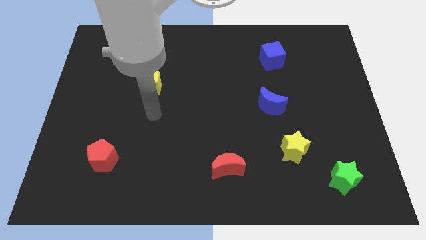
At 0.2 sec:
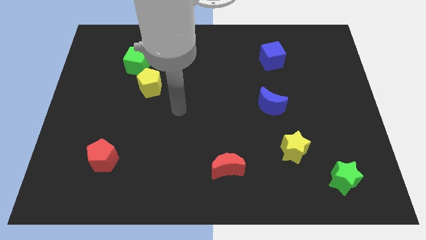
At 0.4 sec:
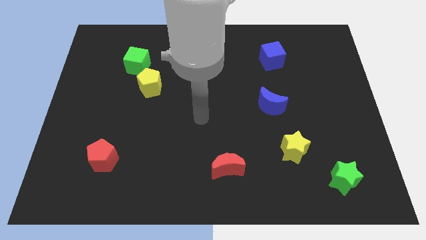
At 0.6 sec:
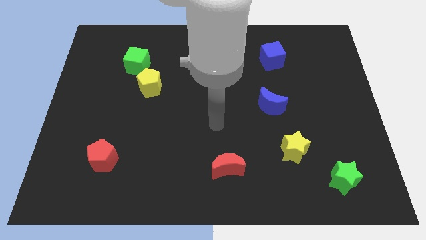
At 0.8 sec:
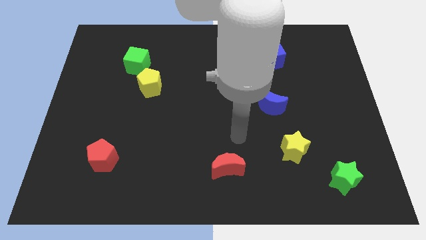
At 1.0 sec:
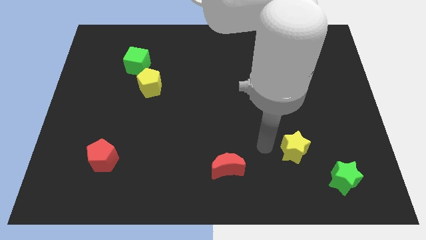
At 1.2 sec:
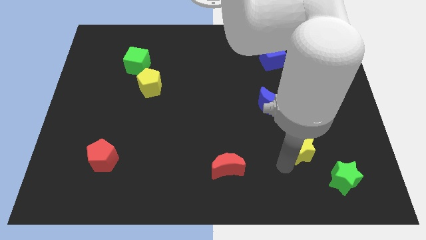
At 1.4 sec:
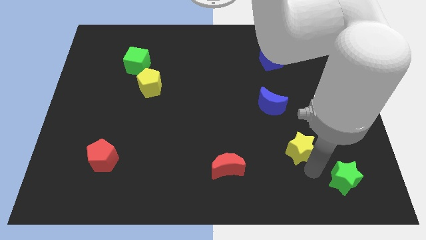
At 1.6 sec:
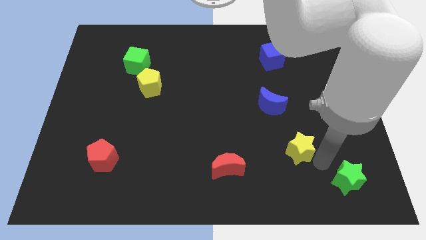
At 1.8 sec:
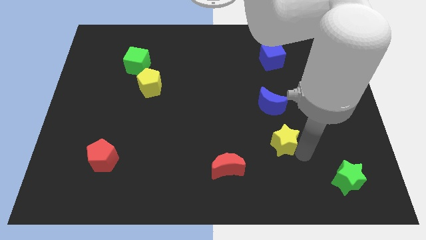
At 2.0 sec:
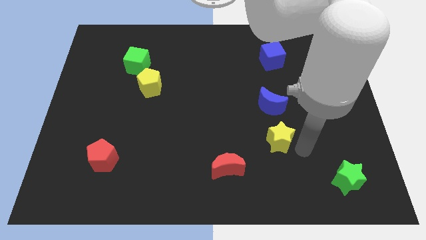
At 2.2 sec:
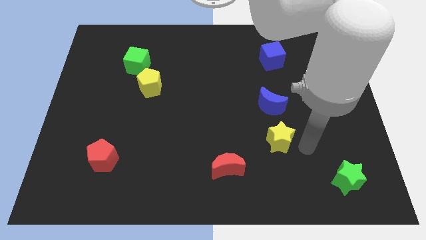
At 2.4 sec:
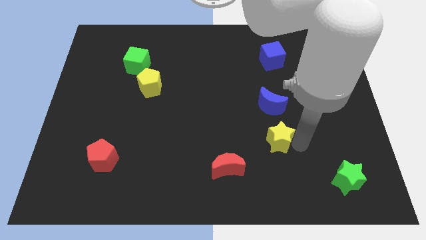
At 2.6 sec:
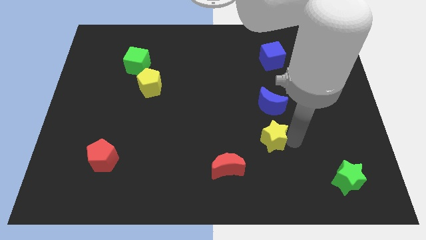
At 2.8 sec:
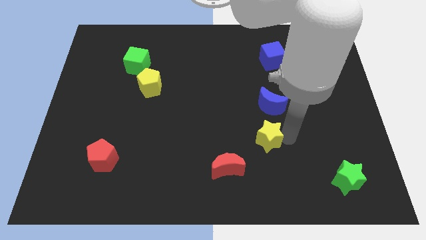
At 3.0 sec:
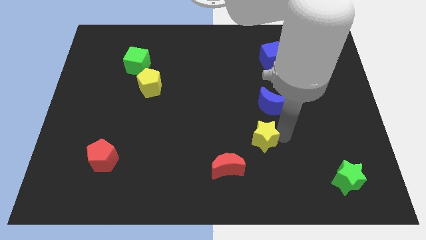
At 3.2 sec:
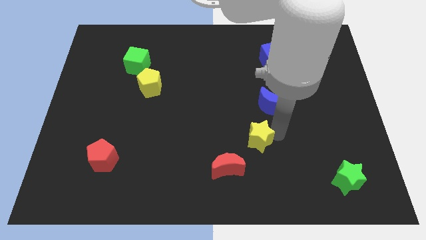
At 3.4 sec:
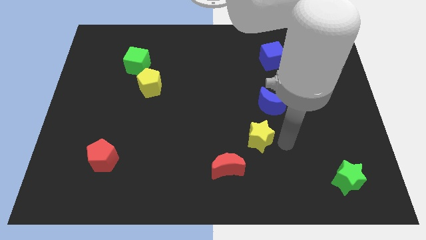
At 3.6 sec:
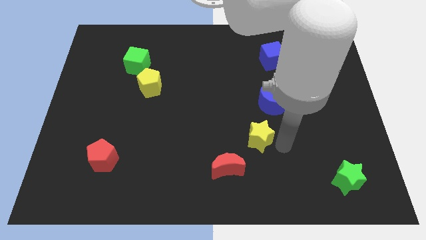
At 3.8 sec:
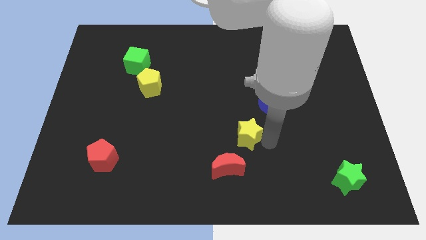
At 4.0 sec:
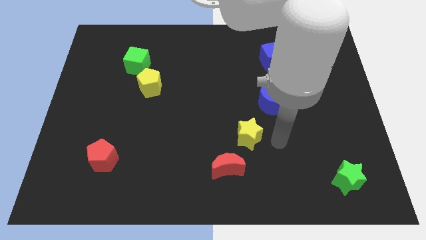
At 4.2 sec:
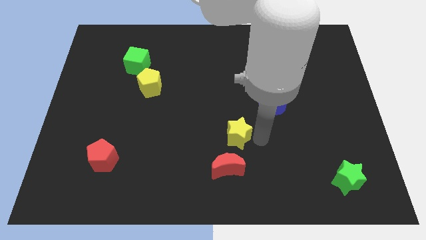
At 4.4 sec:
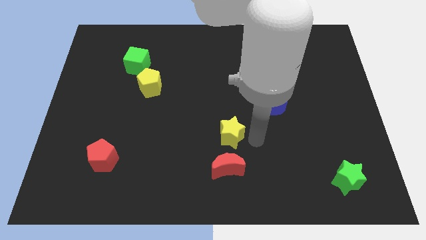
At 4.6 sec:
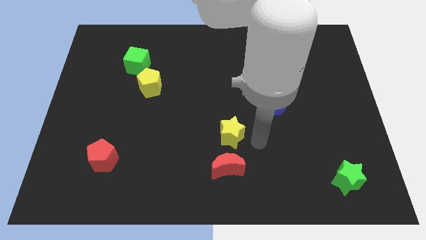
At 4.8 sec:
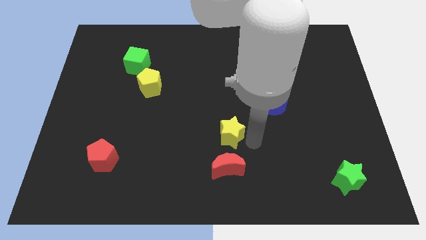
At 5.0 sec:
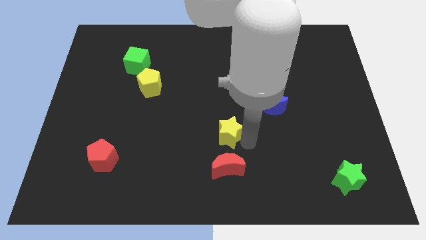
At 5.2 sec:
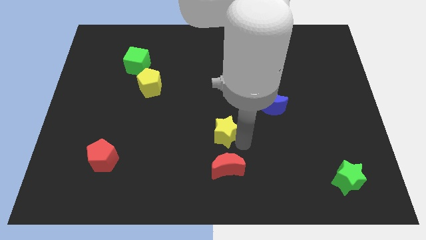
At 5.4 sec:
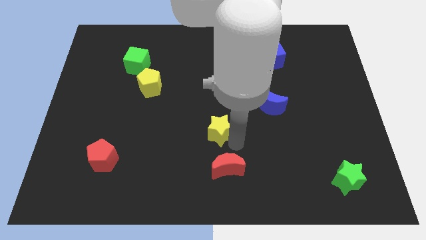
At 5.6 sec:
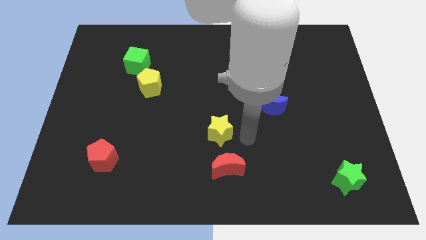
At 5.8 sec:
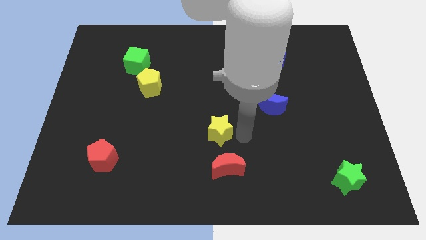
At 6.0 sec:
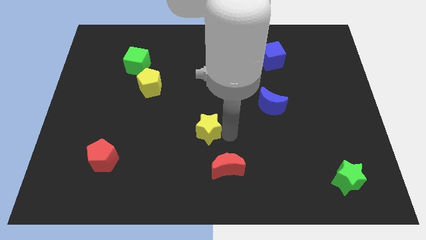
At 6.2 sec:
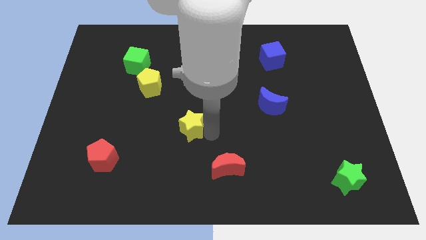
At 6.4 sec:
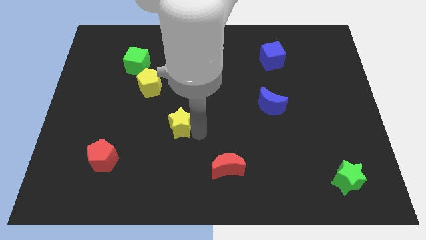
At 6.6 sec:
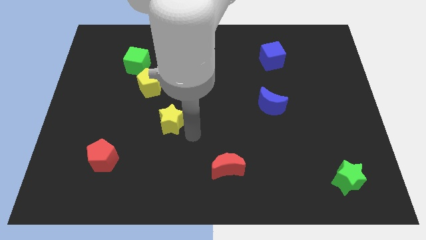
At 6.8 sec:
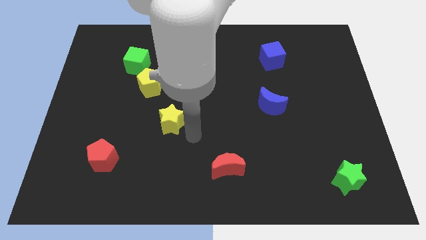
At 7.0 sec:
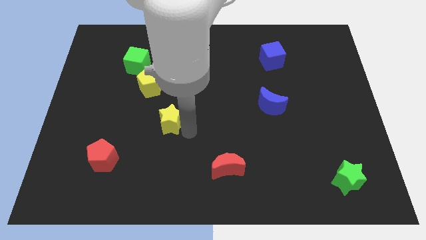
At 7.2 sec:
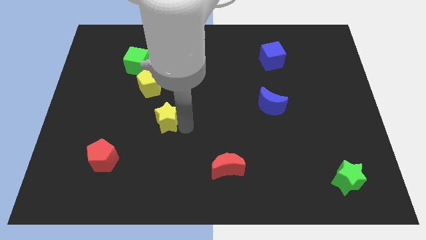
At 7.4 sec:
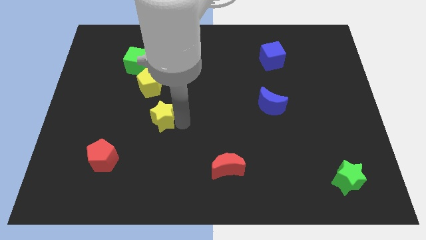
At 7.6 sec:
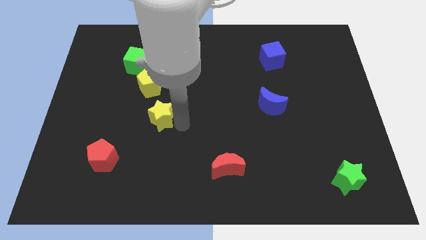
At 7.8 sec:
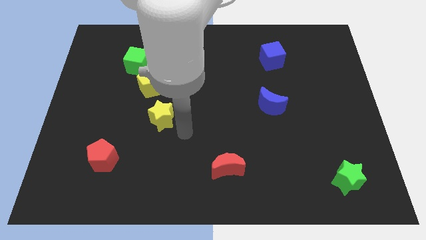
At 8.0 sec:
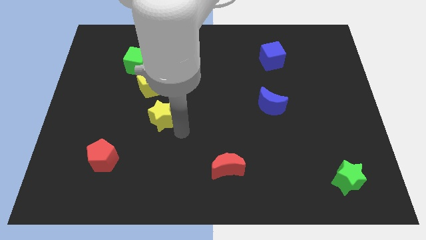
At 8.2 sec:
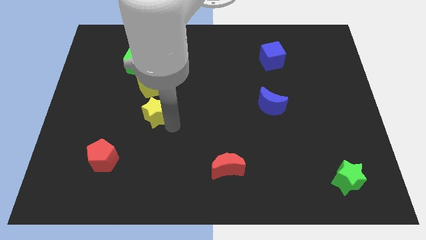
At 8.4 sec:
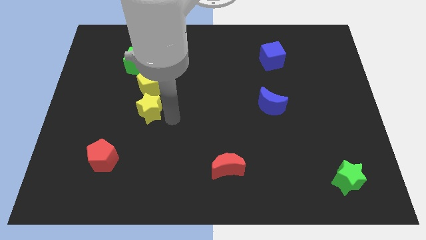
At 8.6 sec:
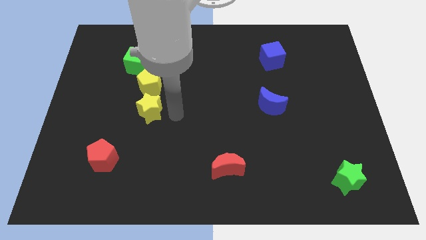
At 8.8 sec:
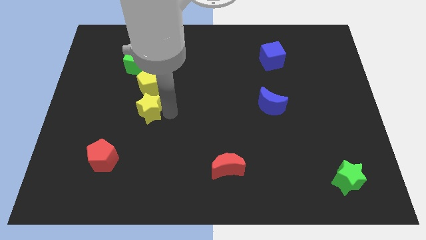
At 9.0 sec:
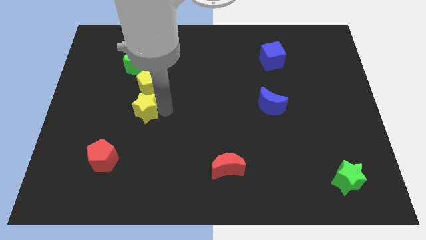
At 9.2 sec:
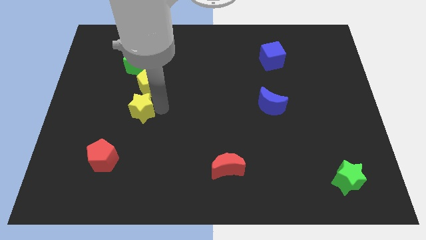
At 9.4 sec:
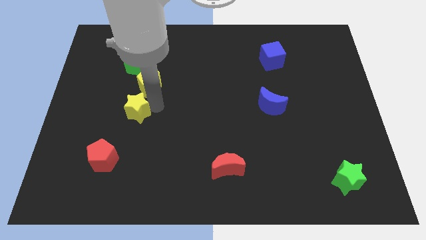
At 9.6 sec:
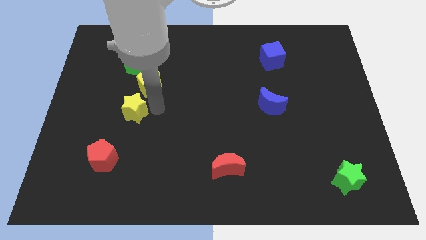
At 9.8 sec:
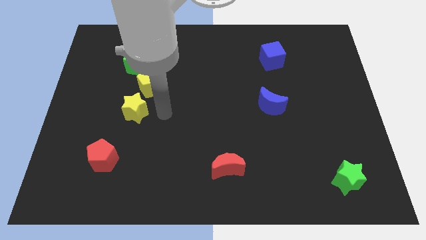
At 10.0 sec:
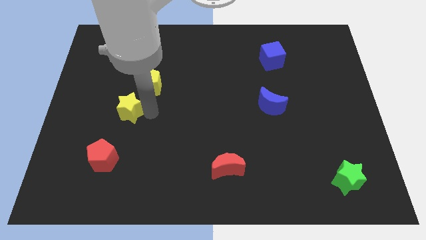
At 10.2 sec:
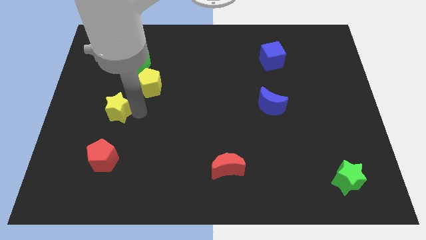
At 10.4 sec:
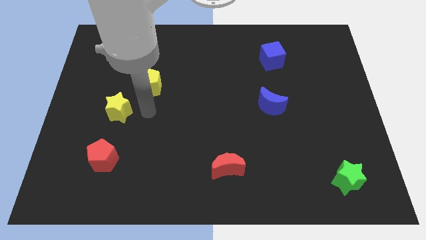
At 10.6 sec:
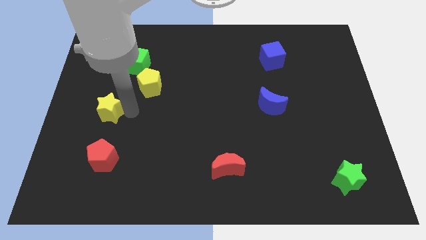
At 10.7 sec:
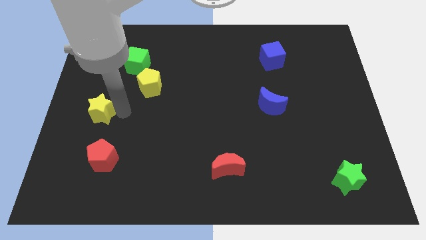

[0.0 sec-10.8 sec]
move the yellow star to the center left

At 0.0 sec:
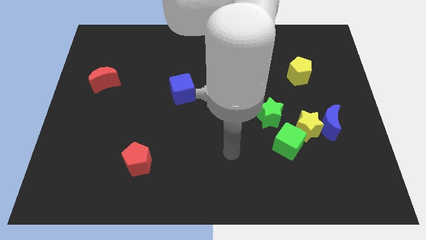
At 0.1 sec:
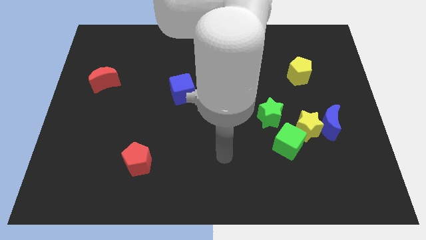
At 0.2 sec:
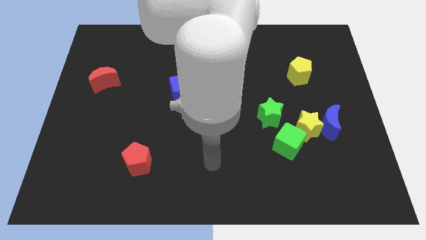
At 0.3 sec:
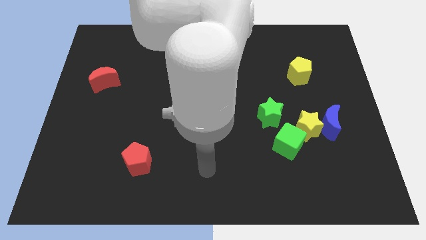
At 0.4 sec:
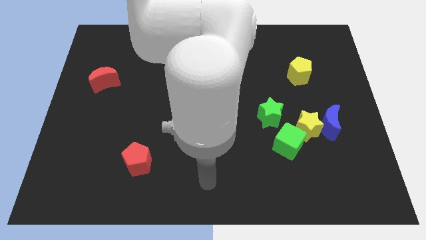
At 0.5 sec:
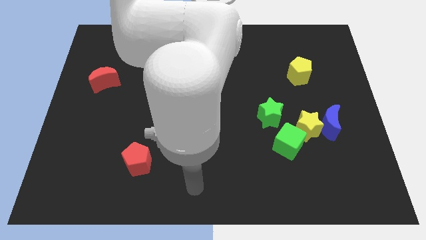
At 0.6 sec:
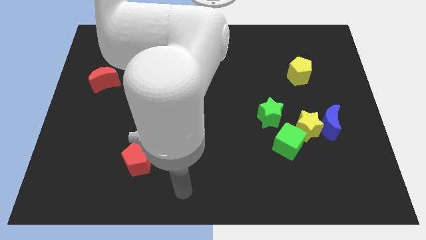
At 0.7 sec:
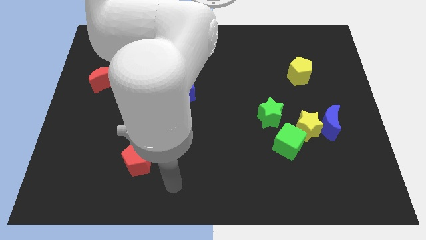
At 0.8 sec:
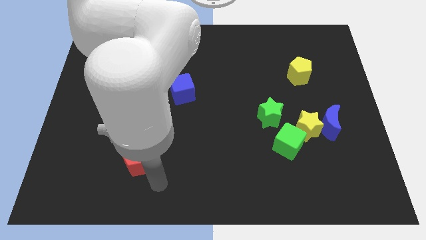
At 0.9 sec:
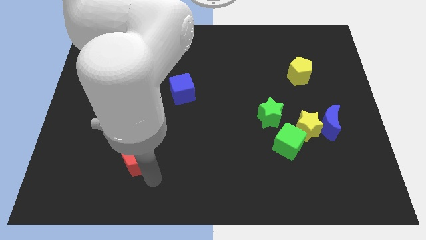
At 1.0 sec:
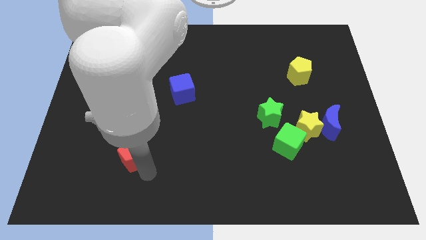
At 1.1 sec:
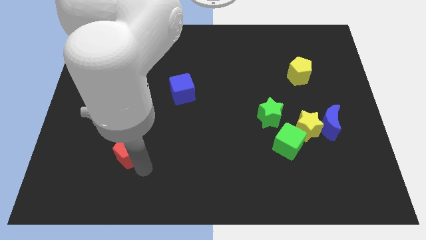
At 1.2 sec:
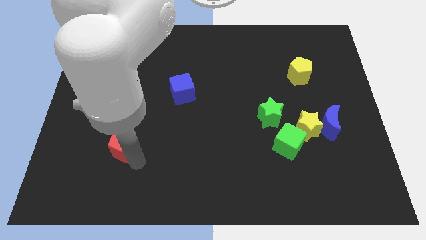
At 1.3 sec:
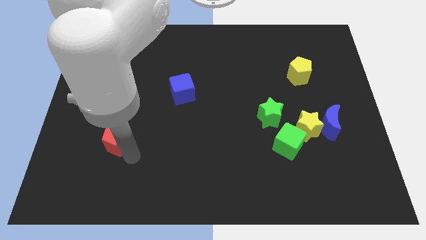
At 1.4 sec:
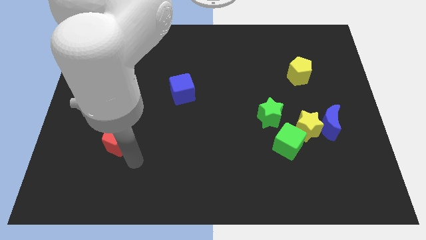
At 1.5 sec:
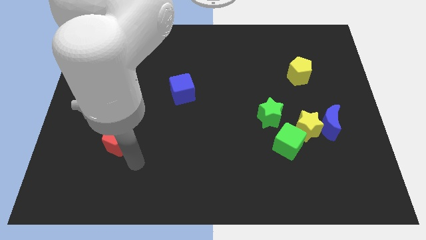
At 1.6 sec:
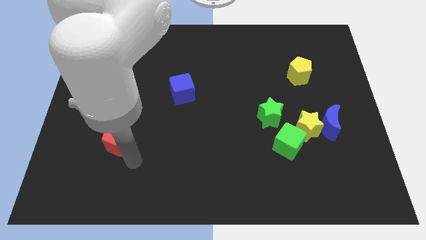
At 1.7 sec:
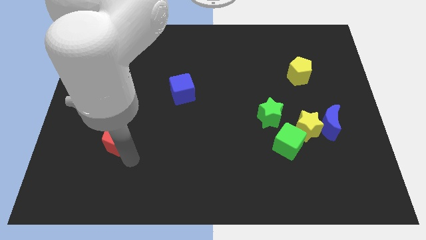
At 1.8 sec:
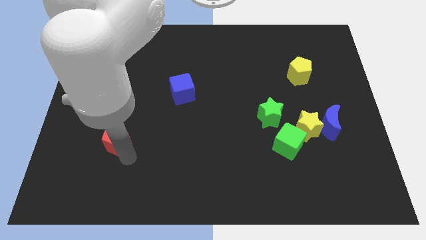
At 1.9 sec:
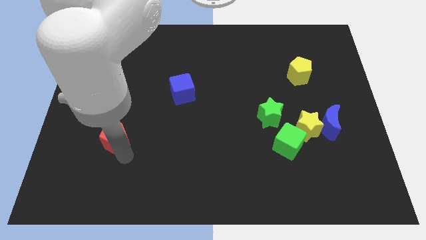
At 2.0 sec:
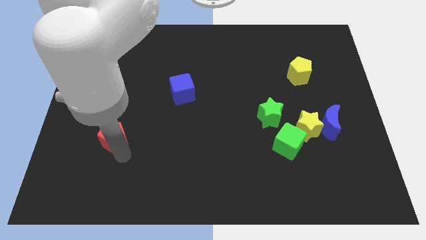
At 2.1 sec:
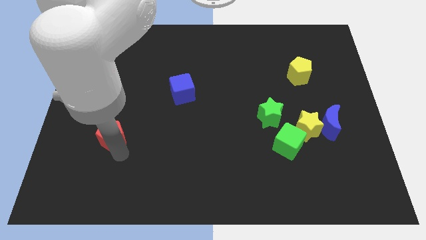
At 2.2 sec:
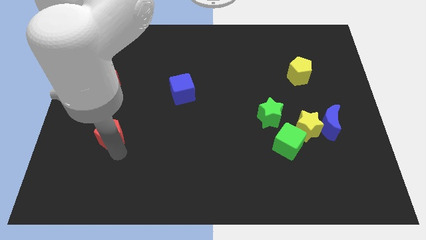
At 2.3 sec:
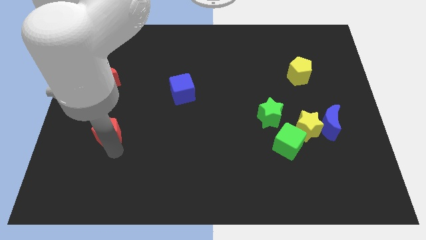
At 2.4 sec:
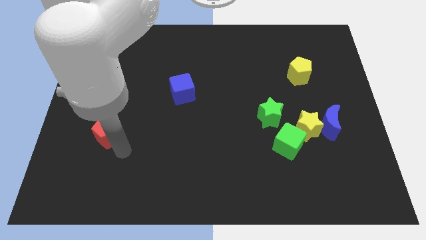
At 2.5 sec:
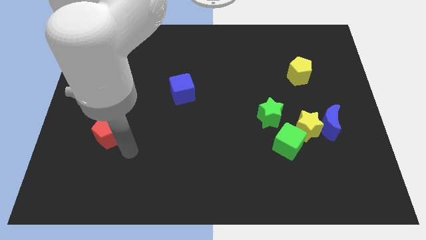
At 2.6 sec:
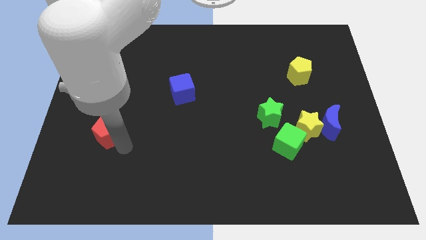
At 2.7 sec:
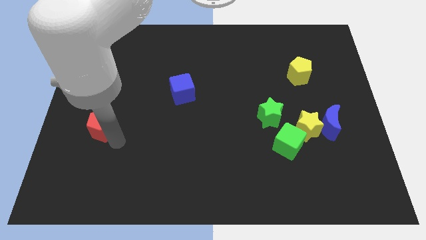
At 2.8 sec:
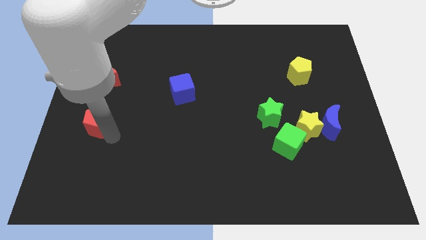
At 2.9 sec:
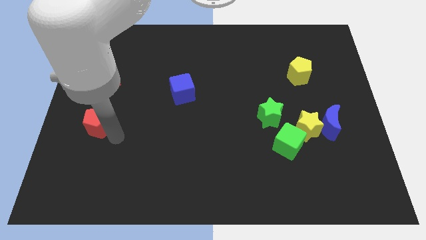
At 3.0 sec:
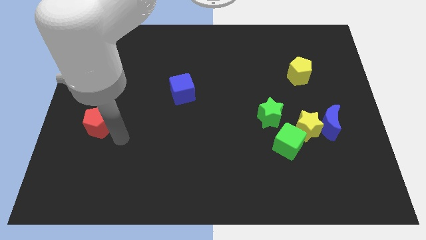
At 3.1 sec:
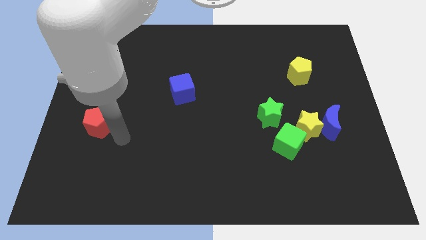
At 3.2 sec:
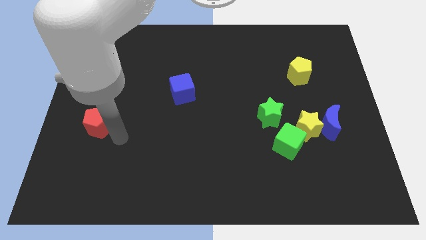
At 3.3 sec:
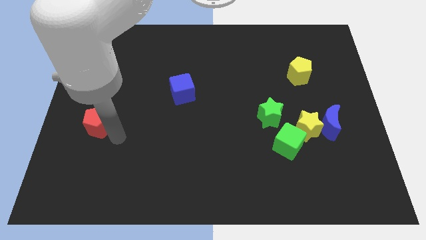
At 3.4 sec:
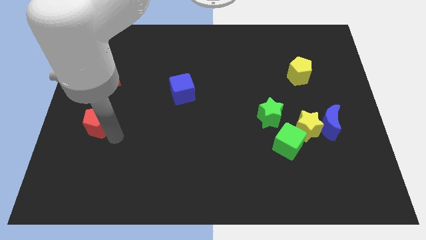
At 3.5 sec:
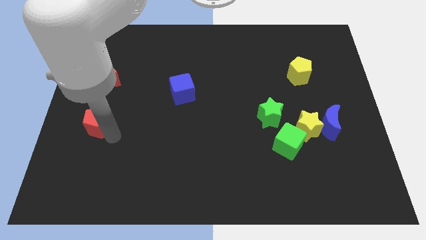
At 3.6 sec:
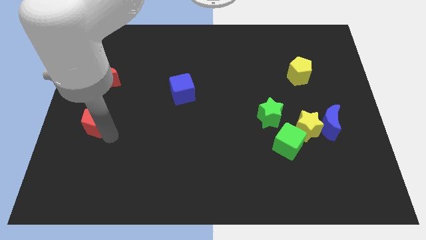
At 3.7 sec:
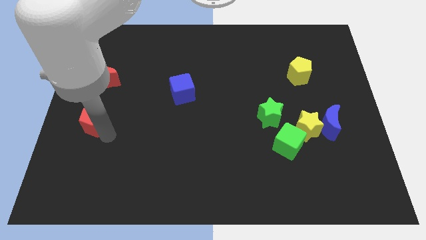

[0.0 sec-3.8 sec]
slide the red pentagon to the left side
